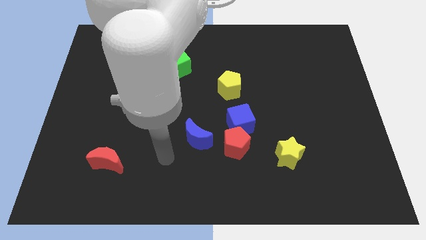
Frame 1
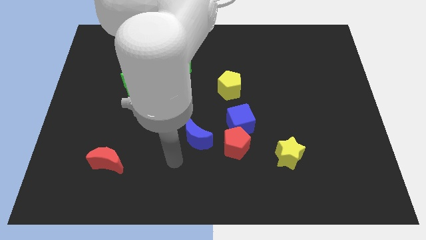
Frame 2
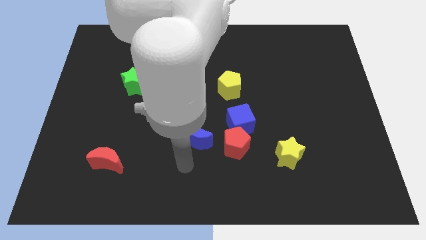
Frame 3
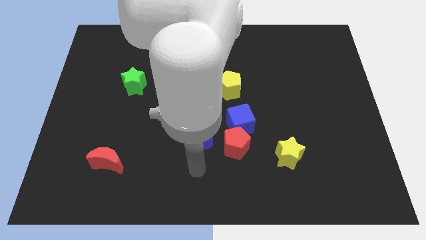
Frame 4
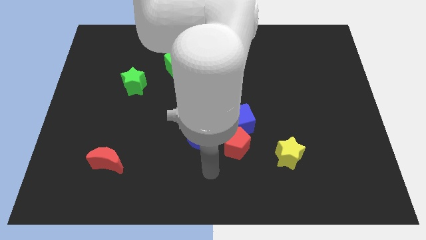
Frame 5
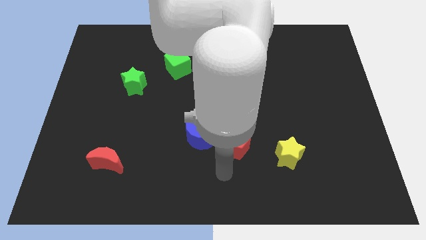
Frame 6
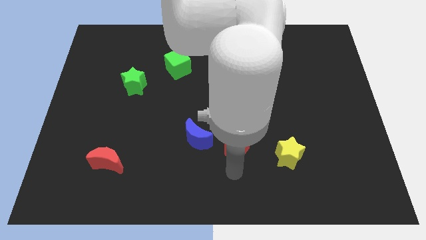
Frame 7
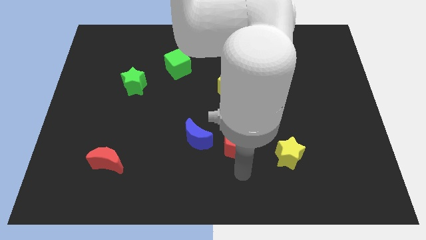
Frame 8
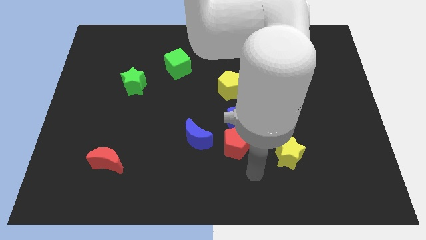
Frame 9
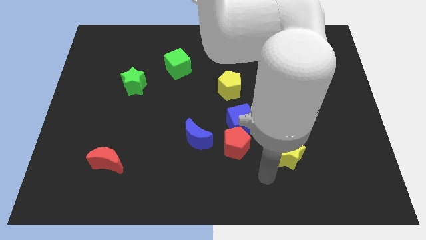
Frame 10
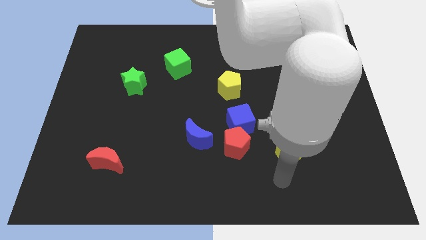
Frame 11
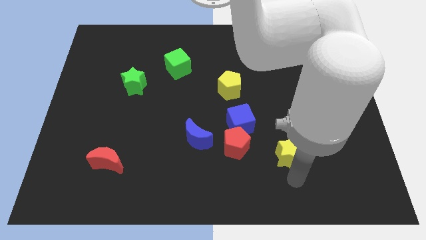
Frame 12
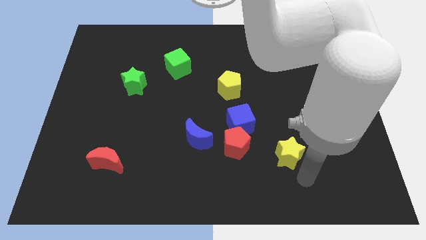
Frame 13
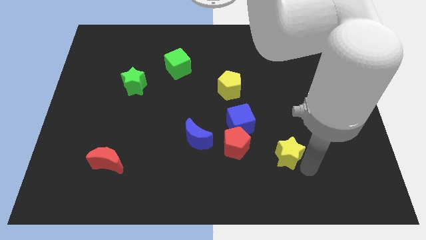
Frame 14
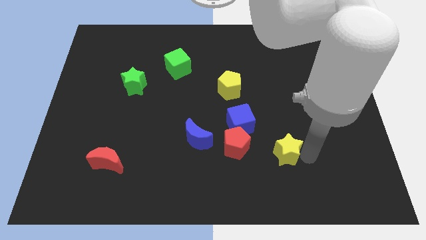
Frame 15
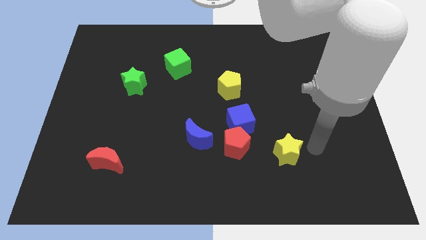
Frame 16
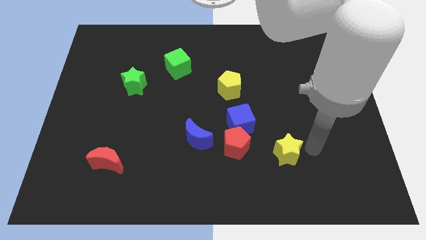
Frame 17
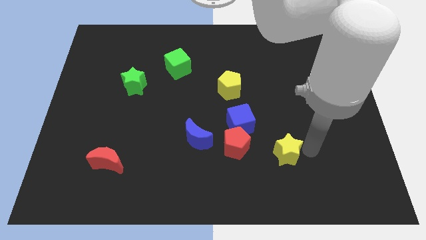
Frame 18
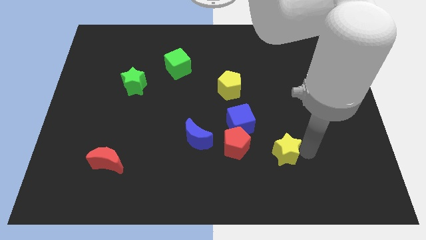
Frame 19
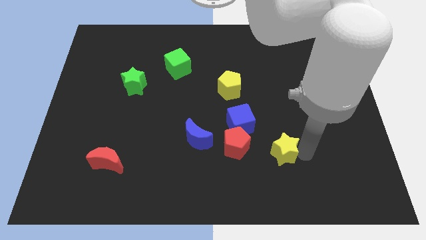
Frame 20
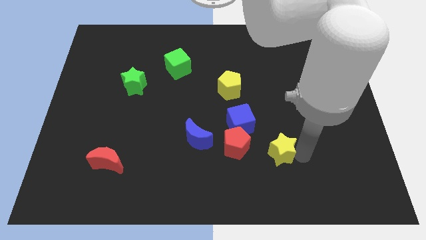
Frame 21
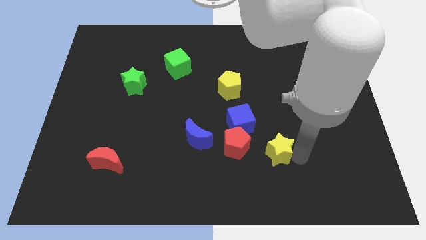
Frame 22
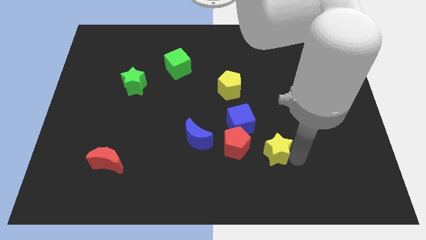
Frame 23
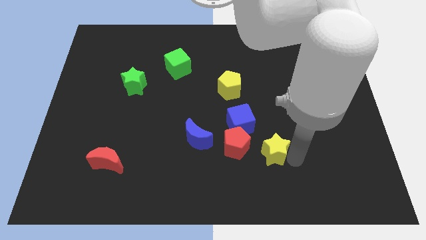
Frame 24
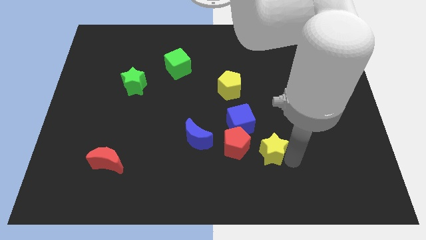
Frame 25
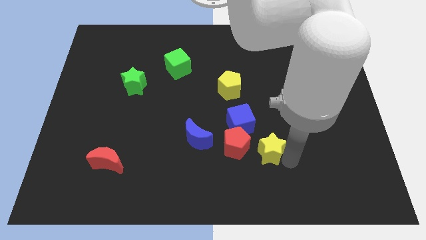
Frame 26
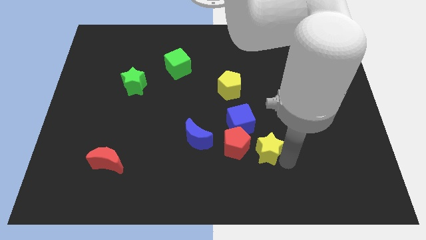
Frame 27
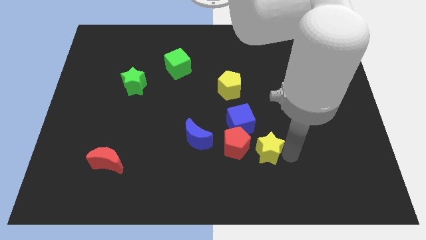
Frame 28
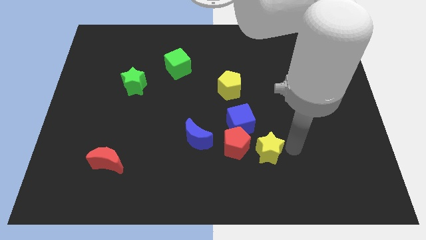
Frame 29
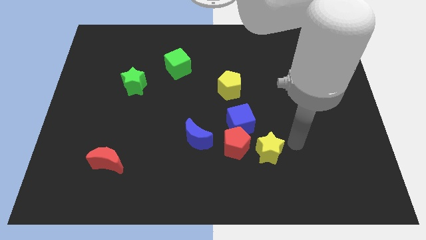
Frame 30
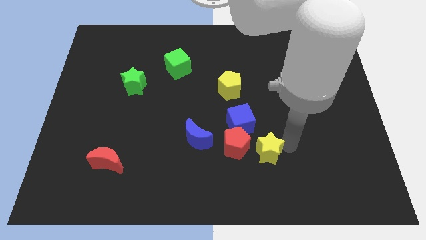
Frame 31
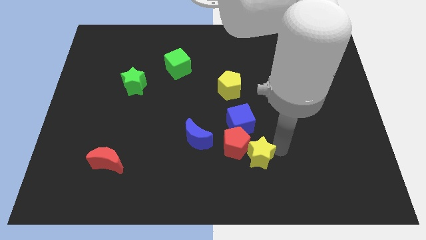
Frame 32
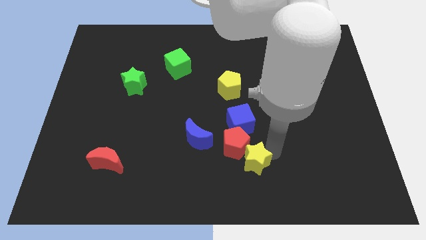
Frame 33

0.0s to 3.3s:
push the yellow star to the left somewhat

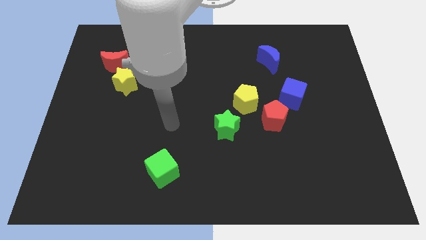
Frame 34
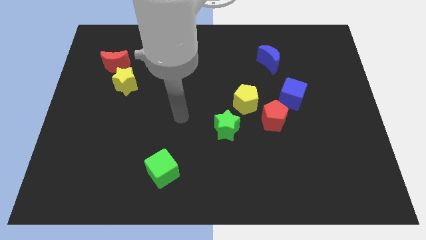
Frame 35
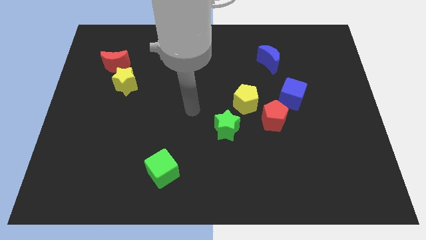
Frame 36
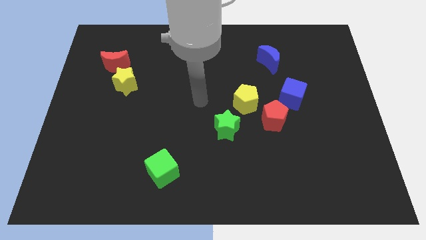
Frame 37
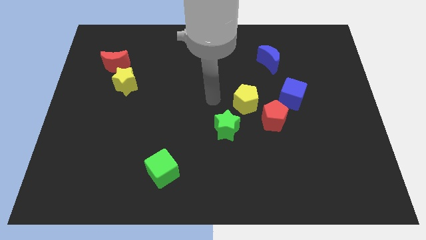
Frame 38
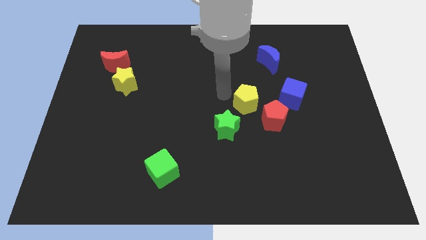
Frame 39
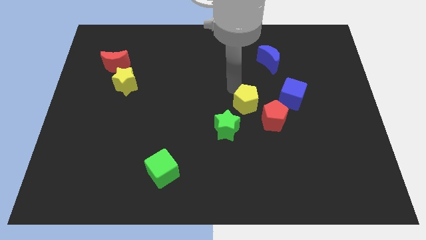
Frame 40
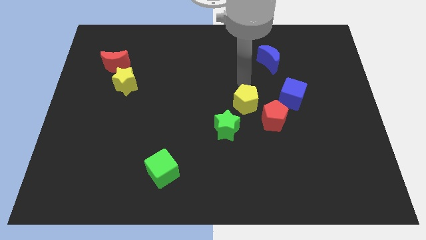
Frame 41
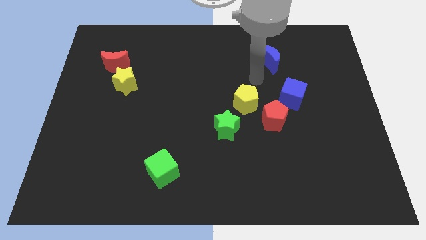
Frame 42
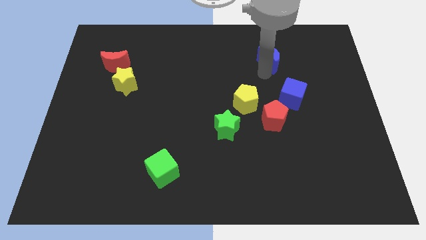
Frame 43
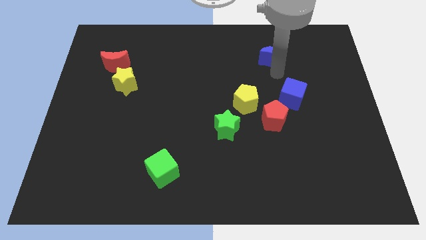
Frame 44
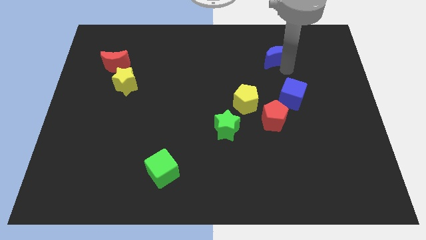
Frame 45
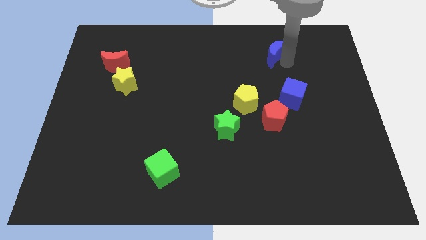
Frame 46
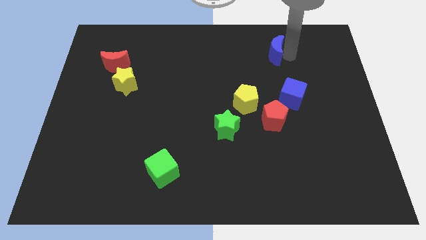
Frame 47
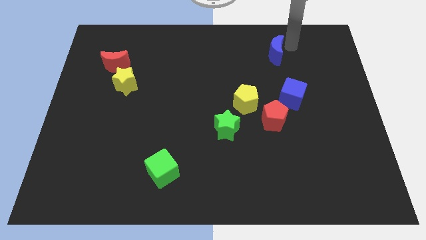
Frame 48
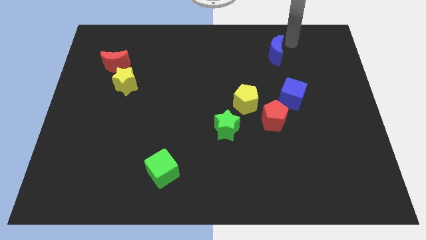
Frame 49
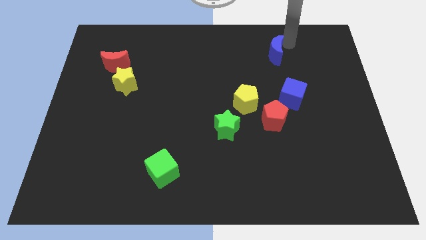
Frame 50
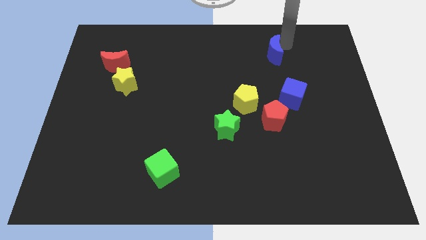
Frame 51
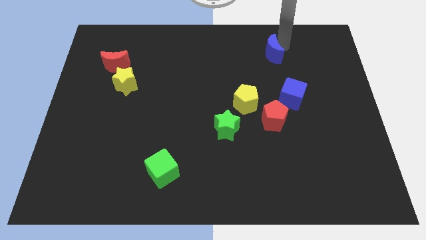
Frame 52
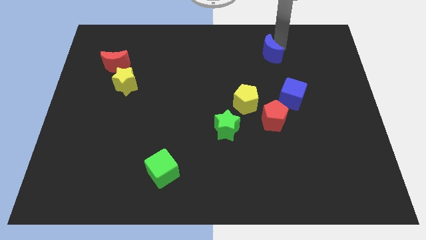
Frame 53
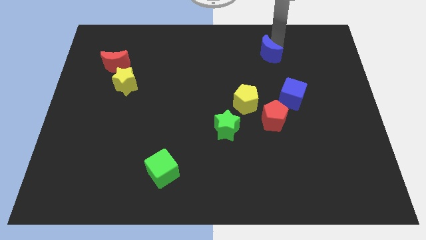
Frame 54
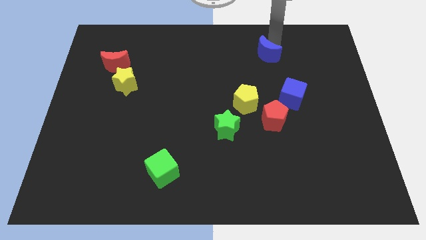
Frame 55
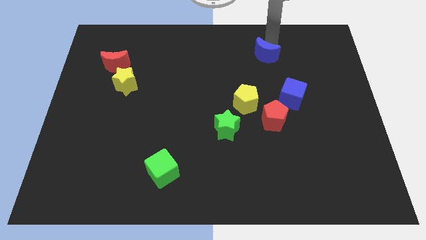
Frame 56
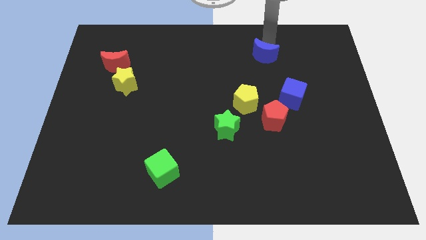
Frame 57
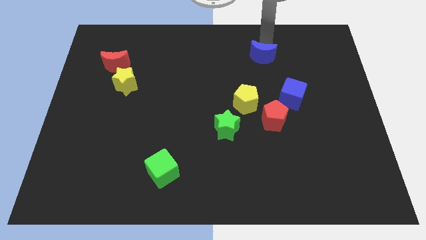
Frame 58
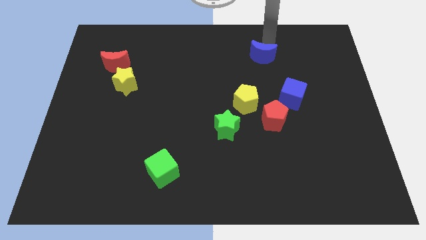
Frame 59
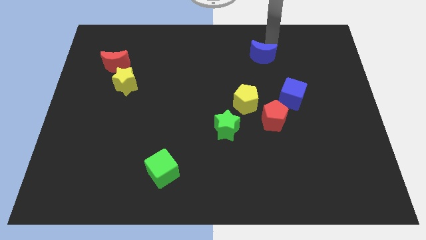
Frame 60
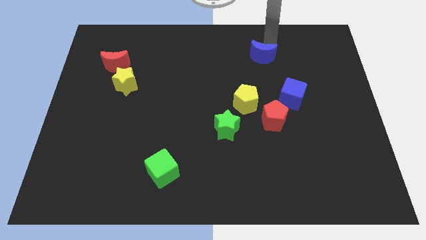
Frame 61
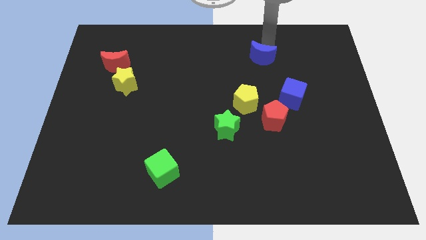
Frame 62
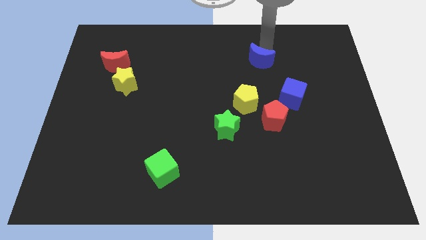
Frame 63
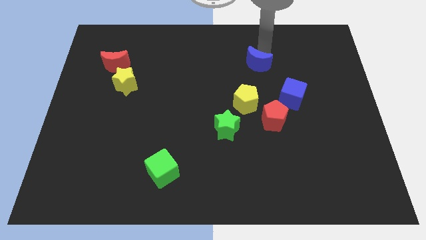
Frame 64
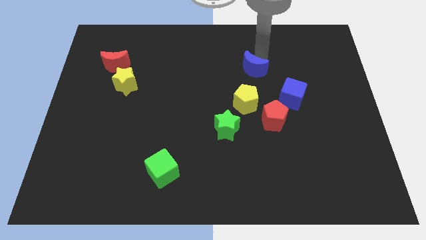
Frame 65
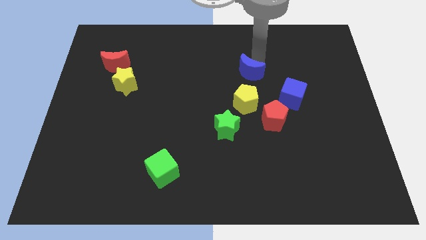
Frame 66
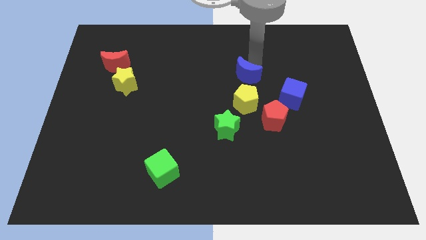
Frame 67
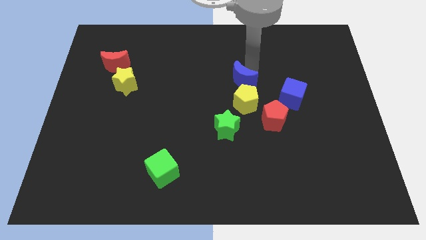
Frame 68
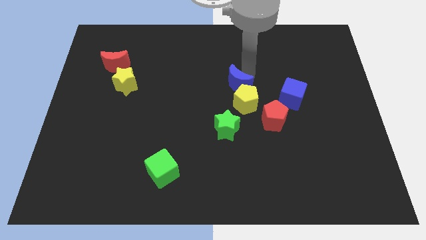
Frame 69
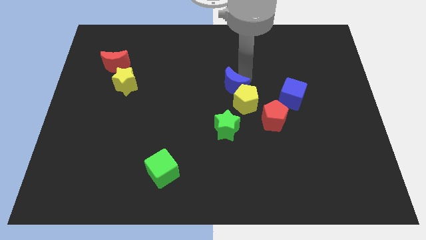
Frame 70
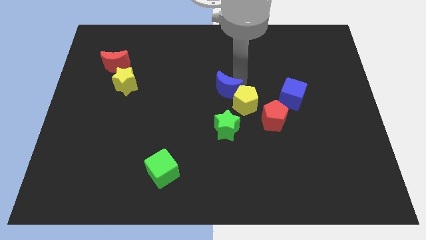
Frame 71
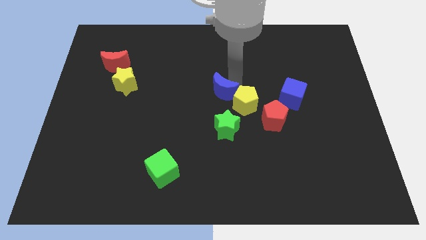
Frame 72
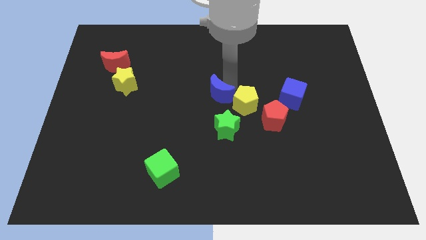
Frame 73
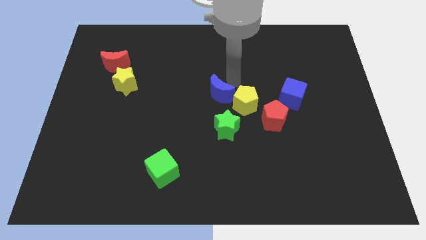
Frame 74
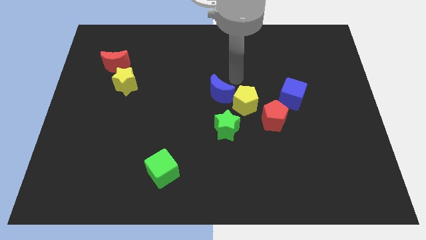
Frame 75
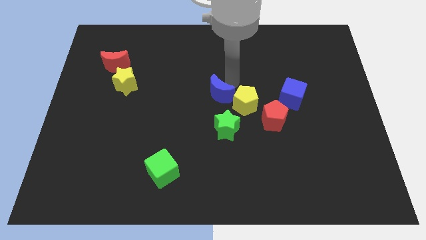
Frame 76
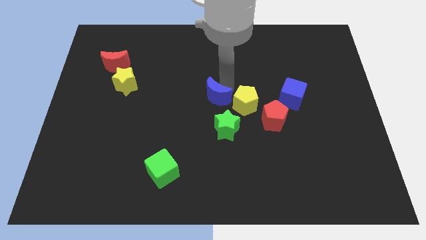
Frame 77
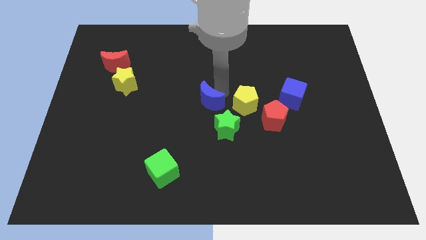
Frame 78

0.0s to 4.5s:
slide the blue moon diagonally downwards and left
